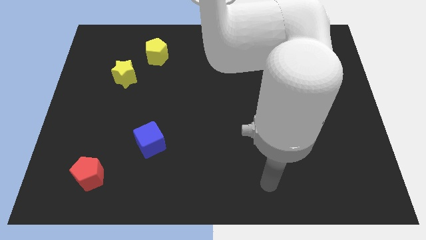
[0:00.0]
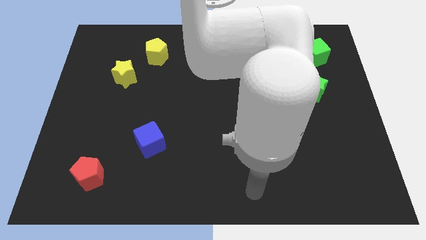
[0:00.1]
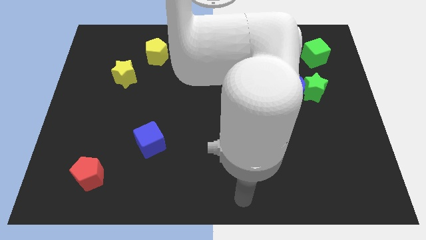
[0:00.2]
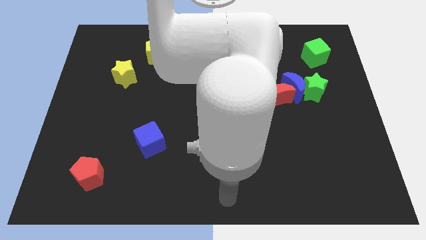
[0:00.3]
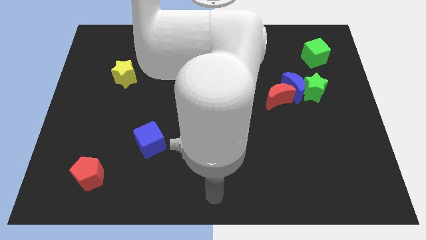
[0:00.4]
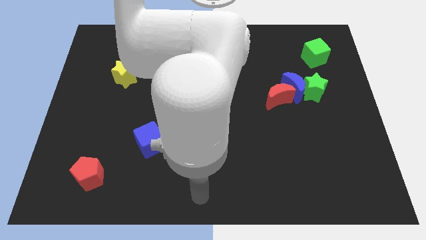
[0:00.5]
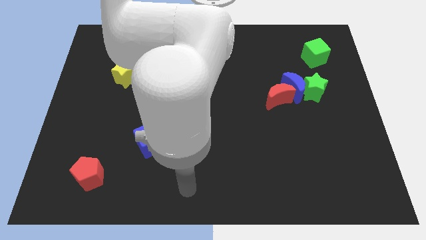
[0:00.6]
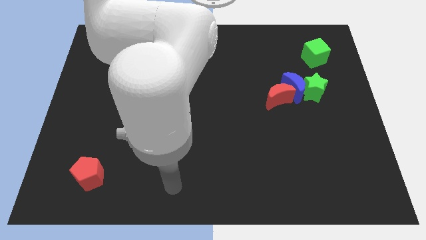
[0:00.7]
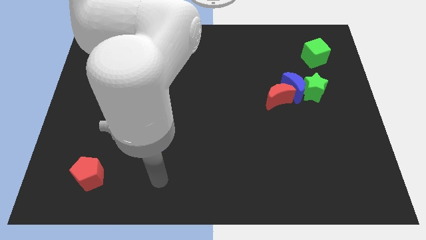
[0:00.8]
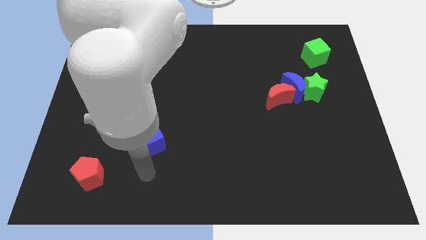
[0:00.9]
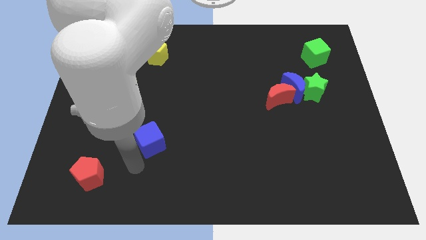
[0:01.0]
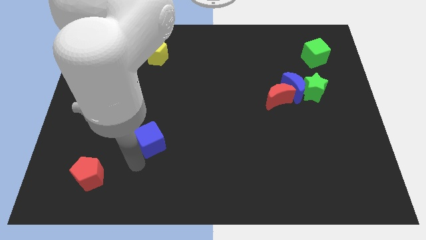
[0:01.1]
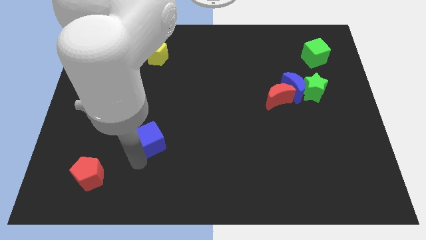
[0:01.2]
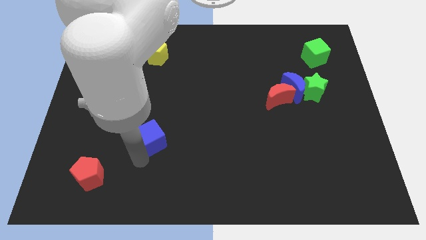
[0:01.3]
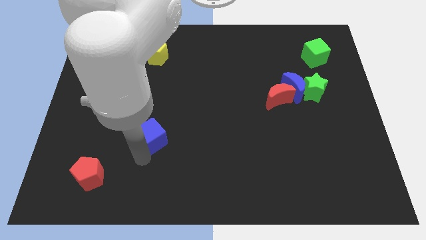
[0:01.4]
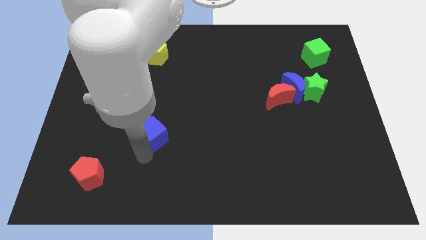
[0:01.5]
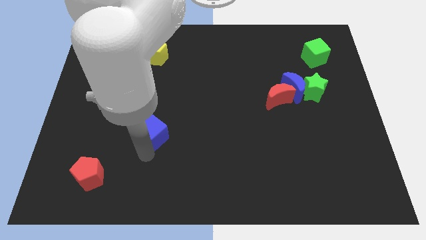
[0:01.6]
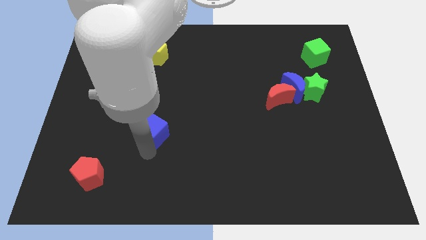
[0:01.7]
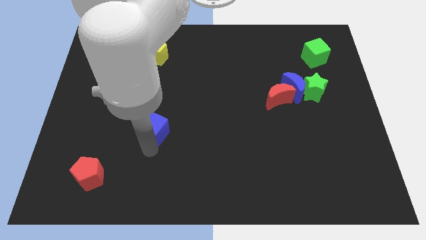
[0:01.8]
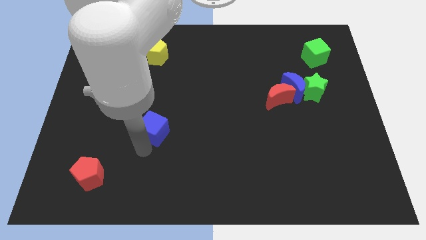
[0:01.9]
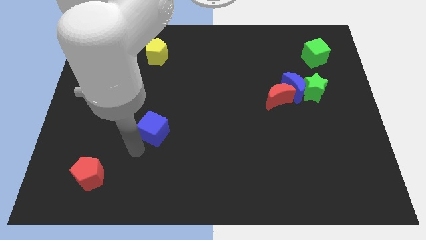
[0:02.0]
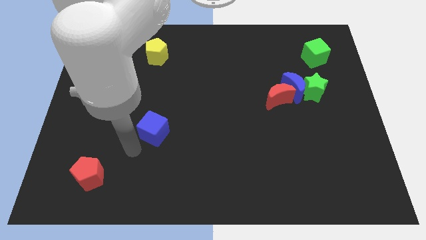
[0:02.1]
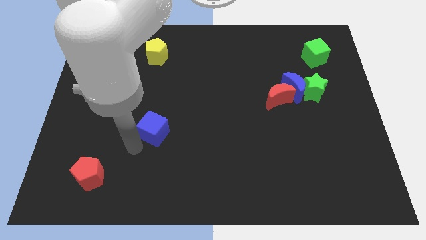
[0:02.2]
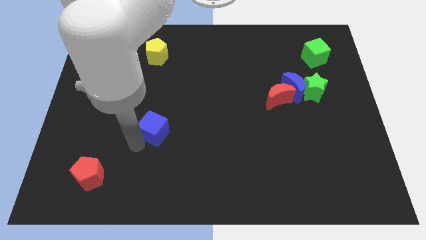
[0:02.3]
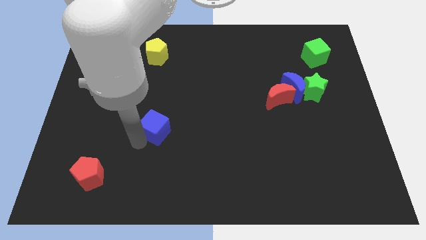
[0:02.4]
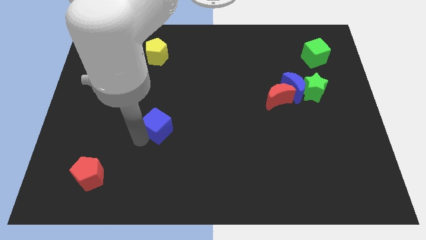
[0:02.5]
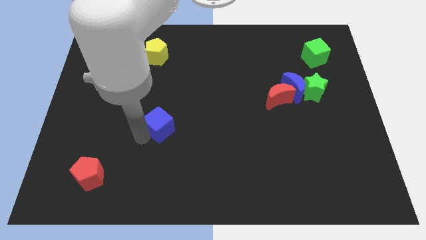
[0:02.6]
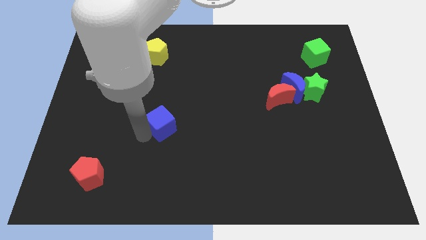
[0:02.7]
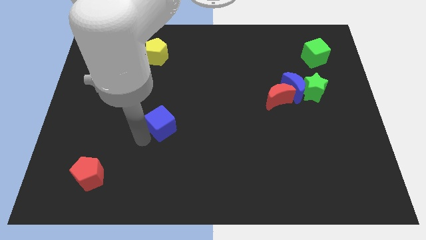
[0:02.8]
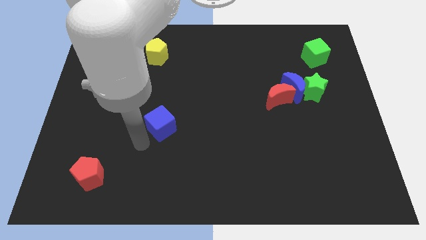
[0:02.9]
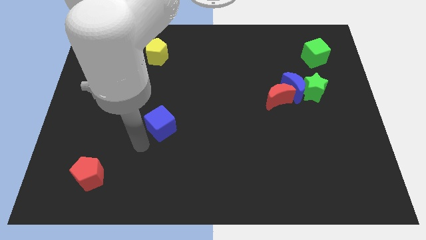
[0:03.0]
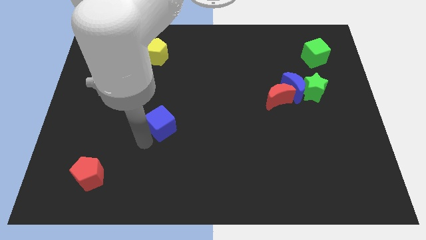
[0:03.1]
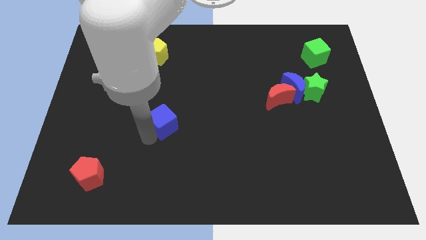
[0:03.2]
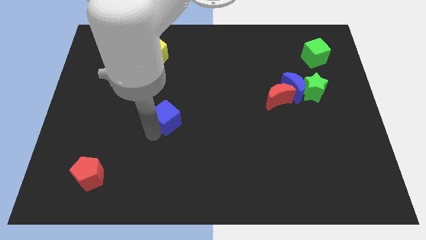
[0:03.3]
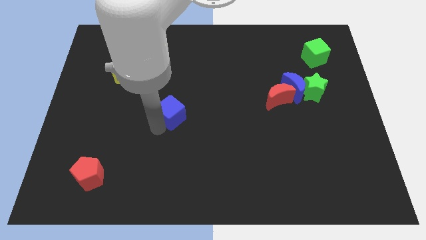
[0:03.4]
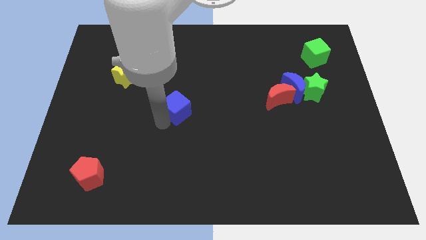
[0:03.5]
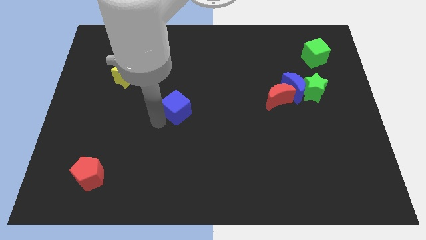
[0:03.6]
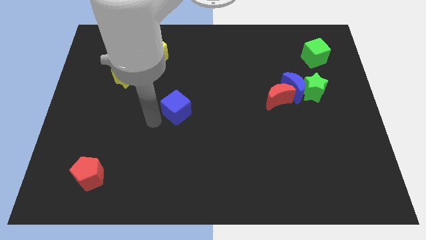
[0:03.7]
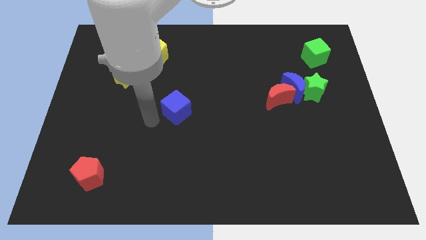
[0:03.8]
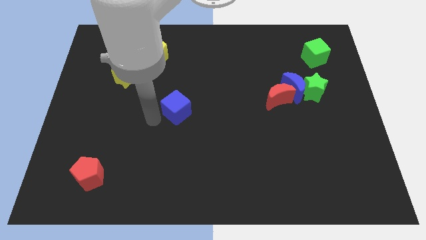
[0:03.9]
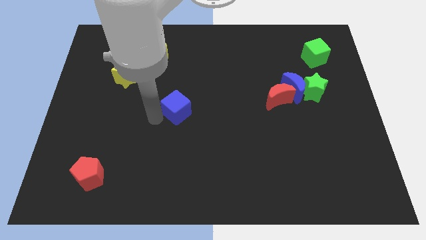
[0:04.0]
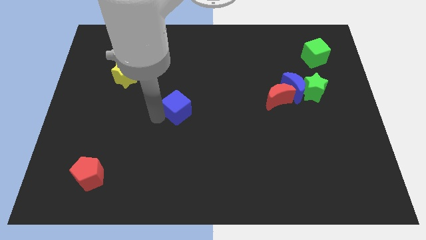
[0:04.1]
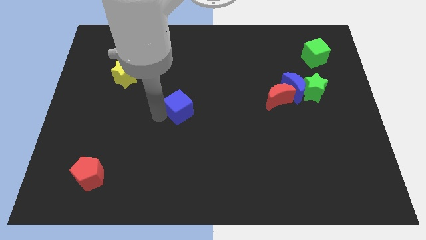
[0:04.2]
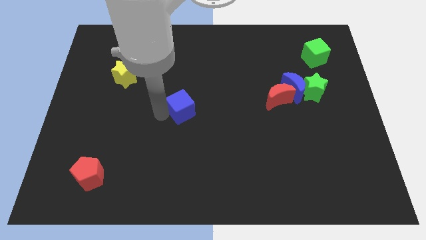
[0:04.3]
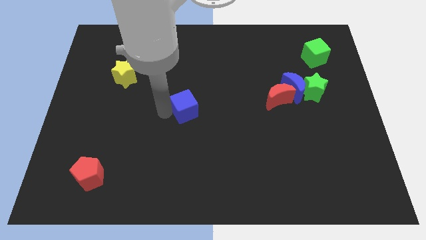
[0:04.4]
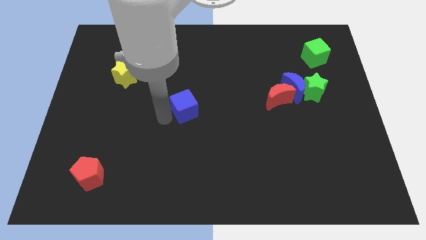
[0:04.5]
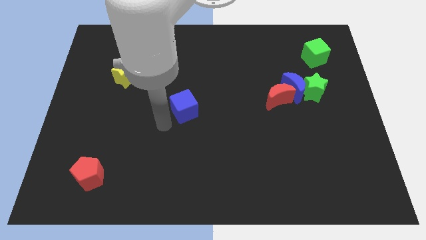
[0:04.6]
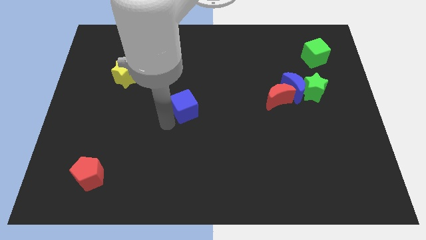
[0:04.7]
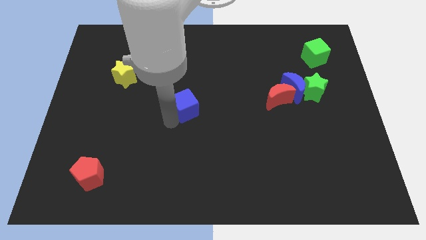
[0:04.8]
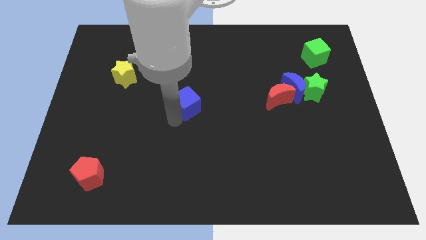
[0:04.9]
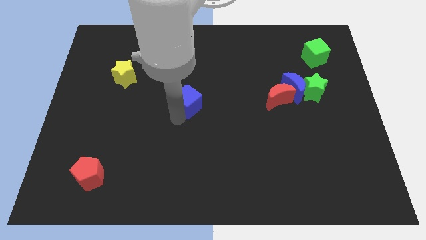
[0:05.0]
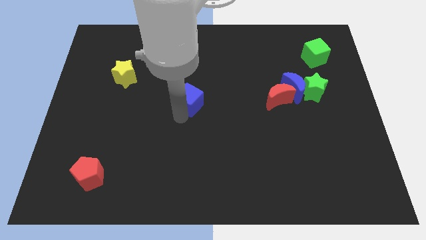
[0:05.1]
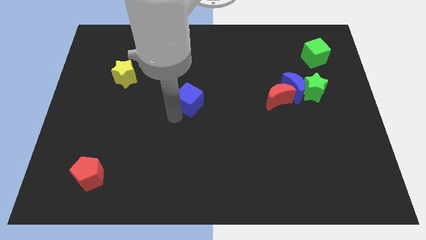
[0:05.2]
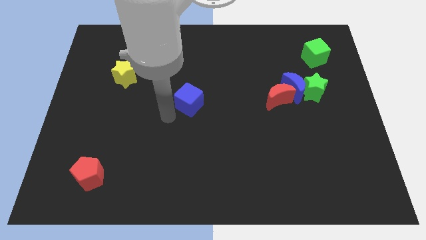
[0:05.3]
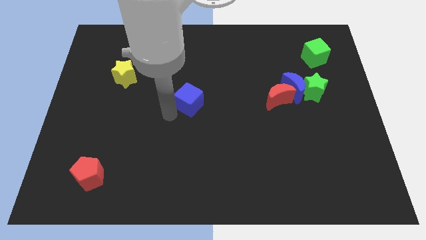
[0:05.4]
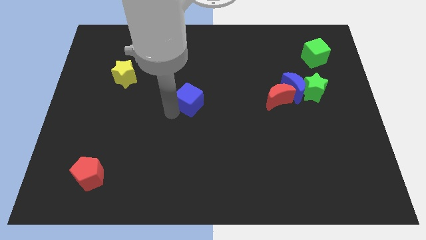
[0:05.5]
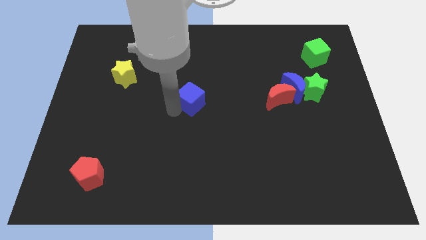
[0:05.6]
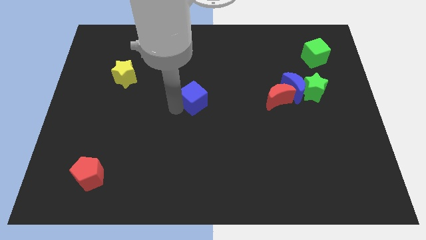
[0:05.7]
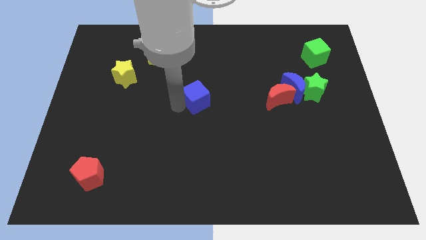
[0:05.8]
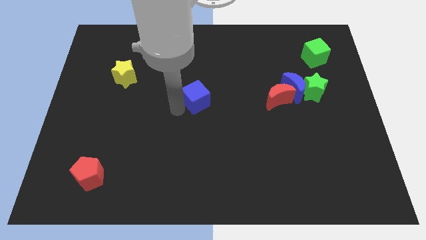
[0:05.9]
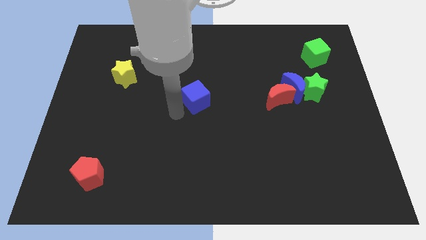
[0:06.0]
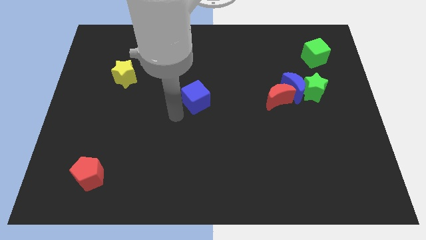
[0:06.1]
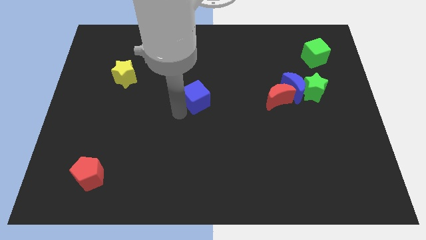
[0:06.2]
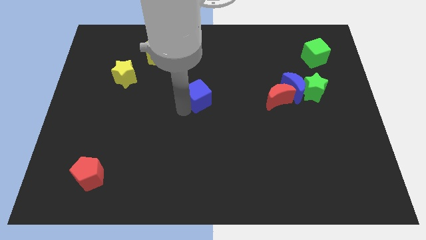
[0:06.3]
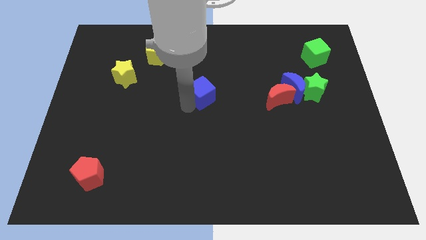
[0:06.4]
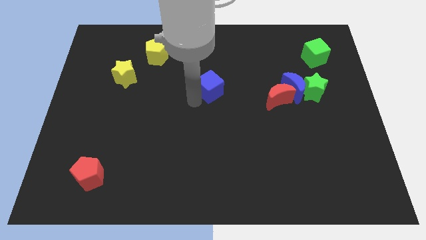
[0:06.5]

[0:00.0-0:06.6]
push the blue cube diagonally up and to the right

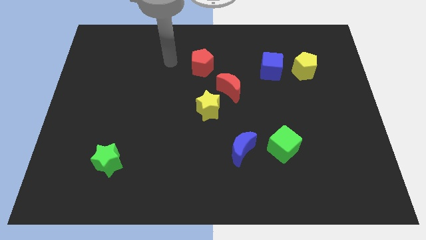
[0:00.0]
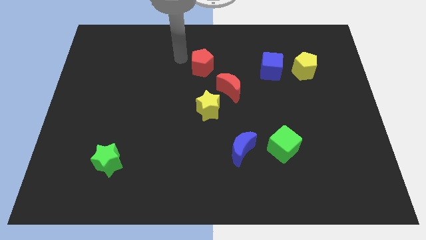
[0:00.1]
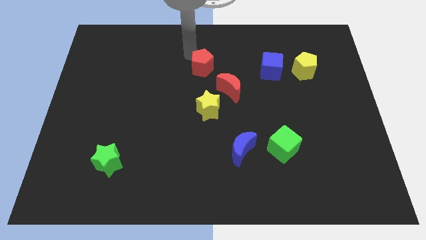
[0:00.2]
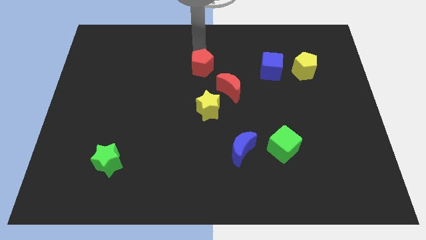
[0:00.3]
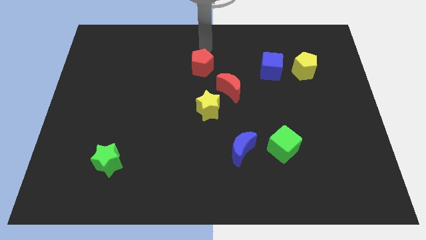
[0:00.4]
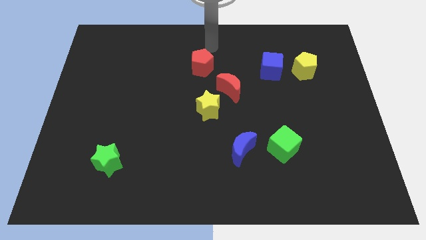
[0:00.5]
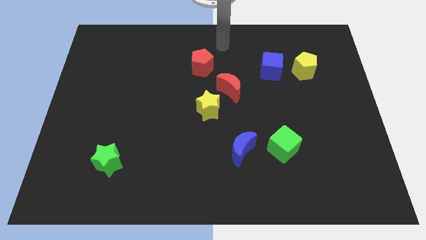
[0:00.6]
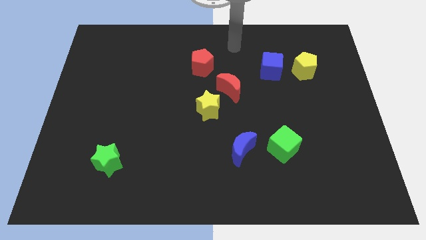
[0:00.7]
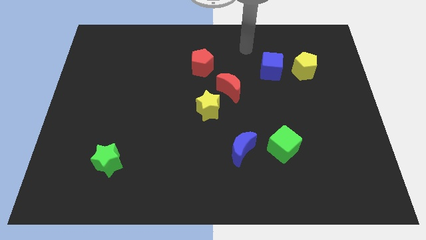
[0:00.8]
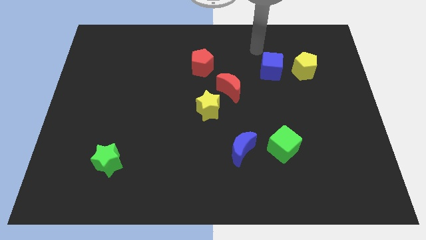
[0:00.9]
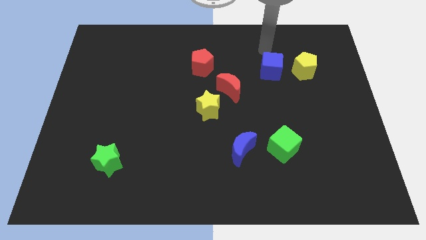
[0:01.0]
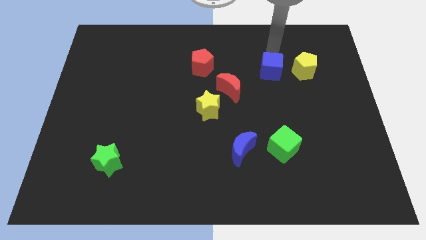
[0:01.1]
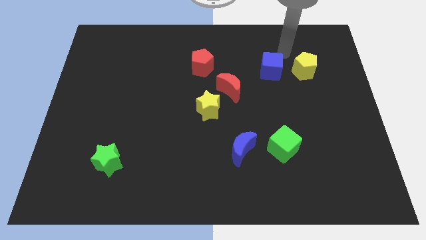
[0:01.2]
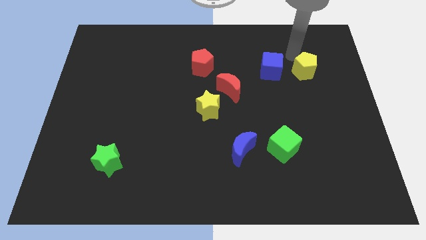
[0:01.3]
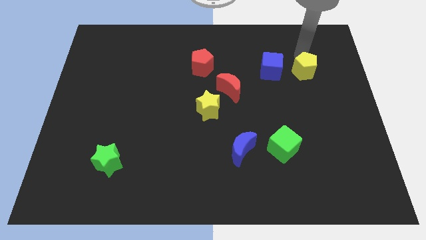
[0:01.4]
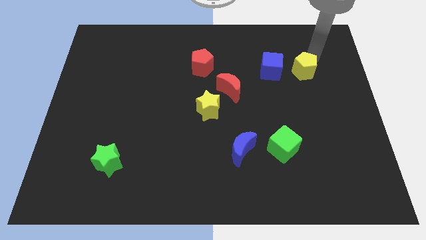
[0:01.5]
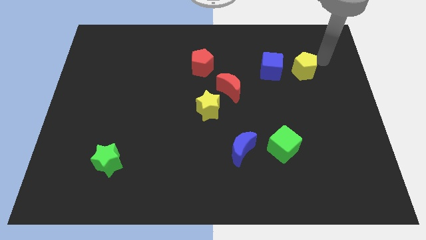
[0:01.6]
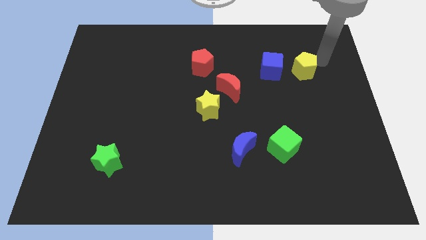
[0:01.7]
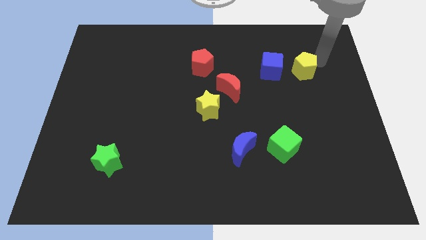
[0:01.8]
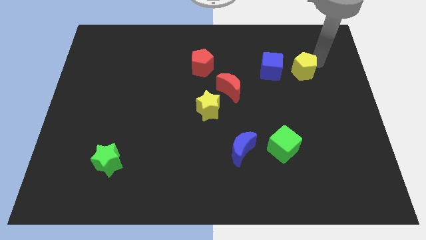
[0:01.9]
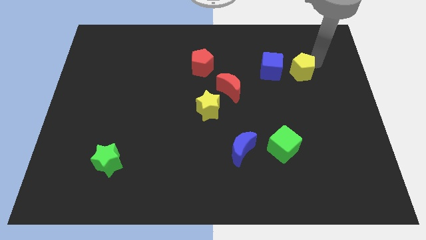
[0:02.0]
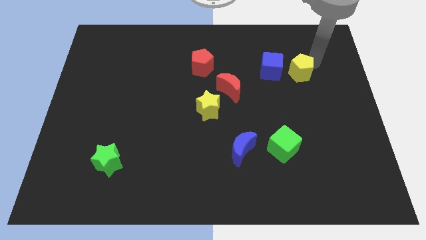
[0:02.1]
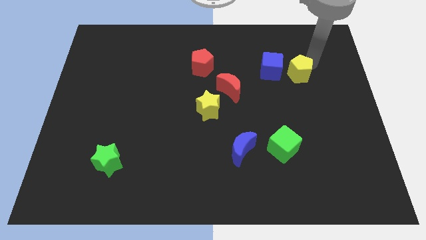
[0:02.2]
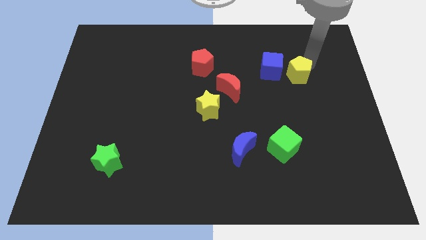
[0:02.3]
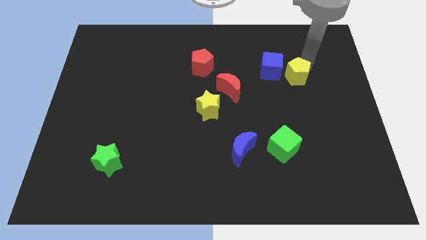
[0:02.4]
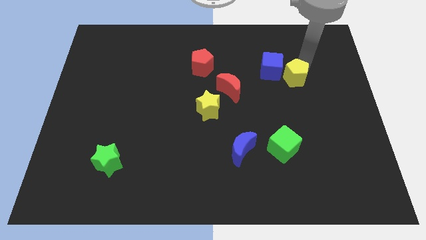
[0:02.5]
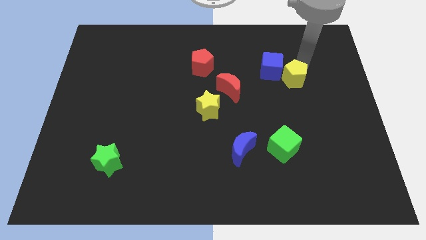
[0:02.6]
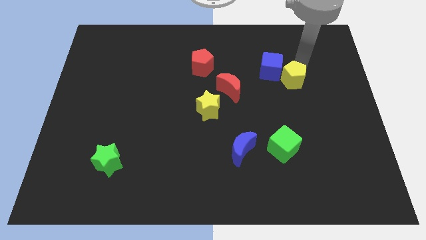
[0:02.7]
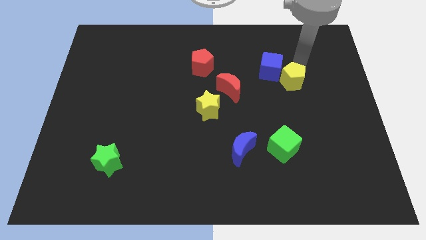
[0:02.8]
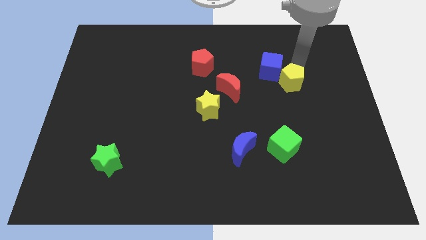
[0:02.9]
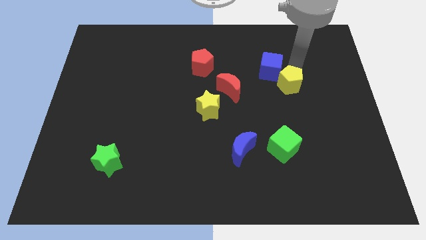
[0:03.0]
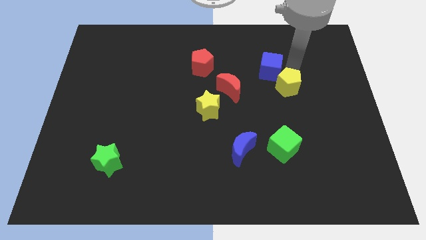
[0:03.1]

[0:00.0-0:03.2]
slightly slide the yellow pentagon diagonally down and left
